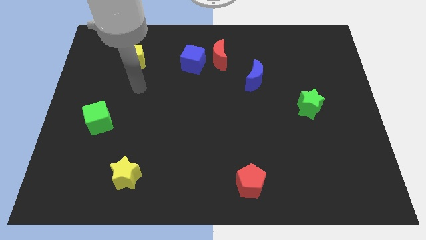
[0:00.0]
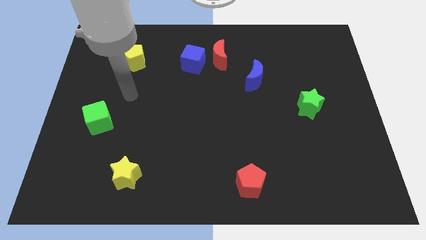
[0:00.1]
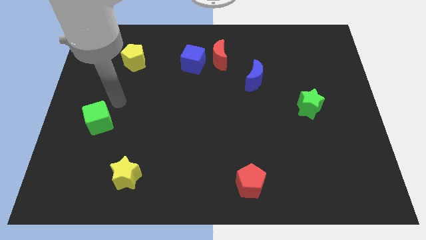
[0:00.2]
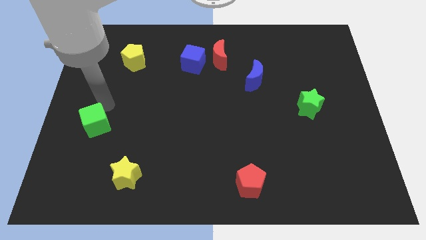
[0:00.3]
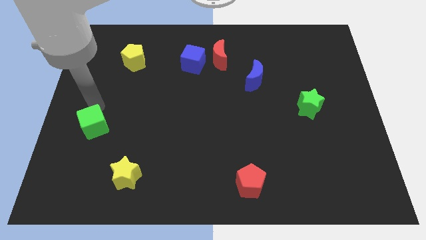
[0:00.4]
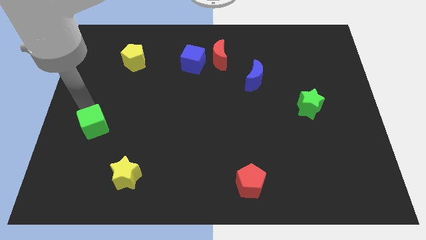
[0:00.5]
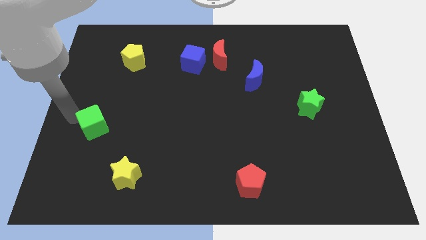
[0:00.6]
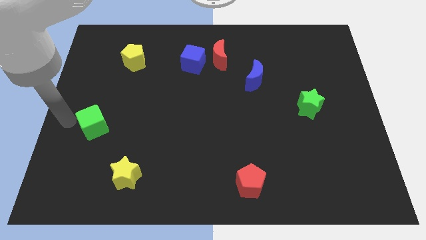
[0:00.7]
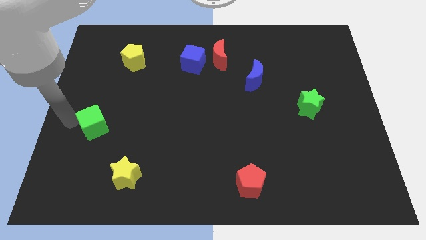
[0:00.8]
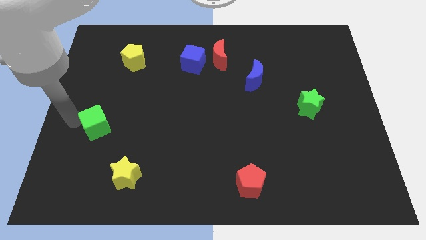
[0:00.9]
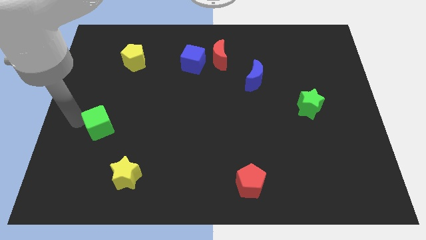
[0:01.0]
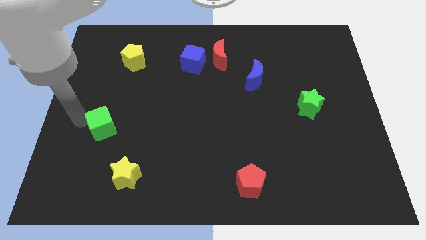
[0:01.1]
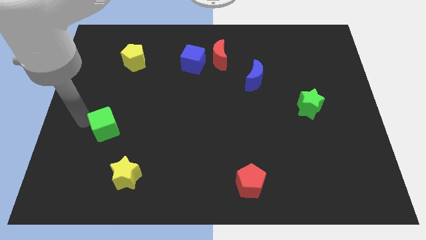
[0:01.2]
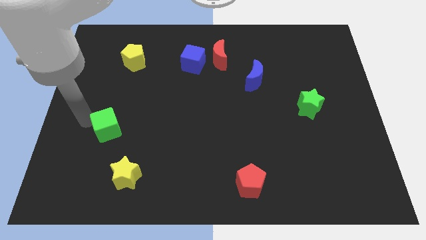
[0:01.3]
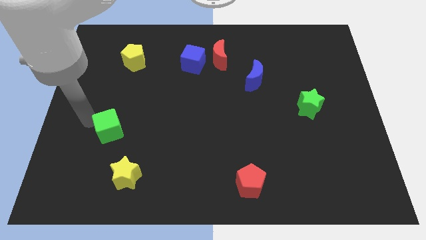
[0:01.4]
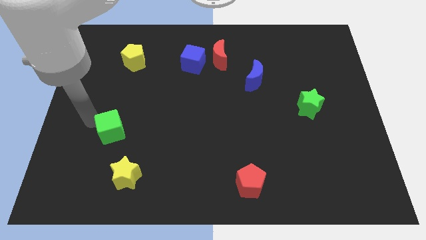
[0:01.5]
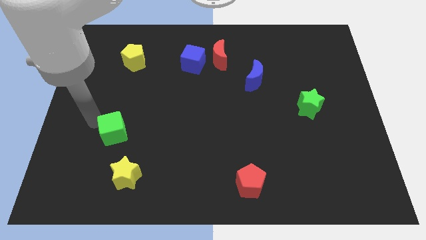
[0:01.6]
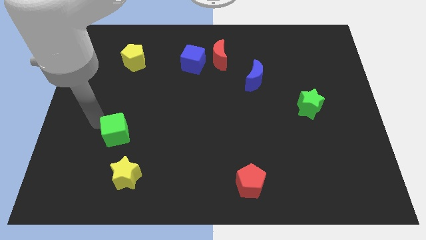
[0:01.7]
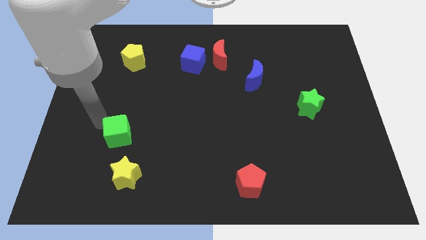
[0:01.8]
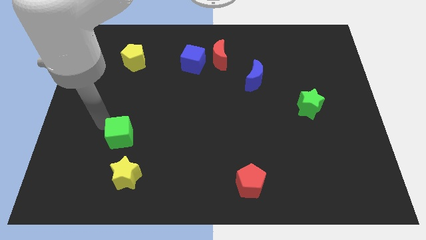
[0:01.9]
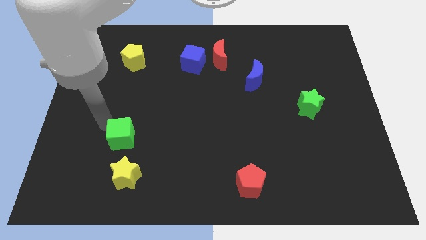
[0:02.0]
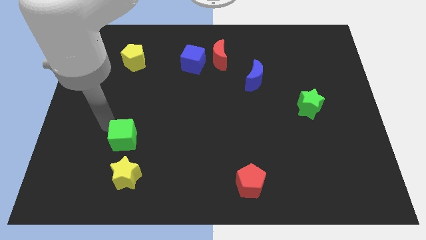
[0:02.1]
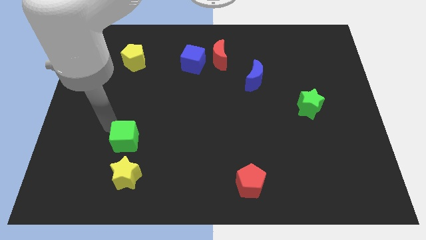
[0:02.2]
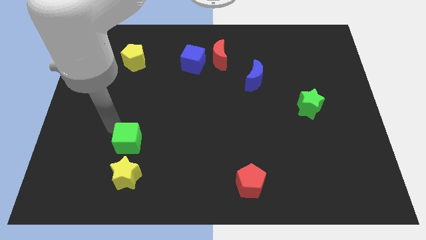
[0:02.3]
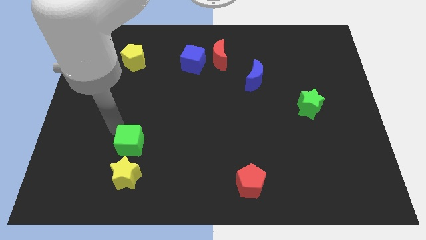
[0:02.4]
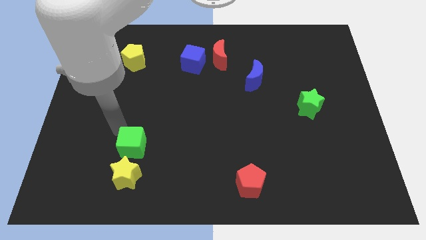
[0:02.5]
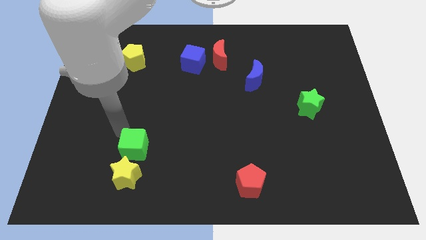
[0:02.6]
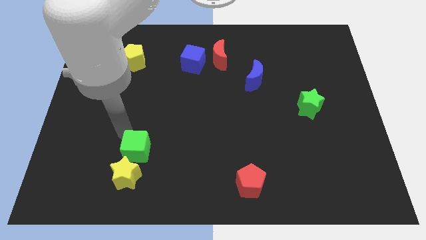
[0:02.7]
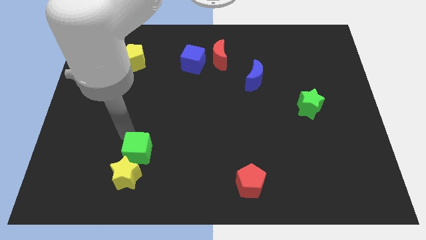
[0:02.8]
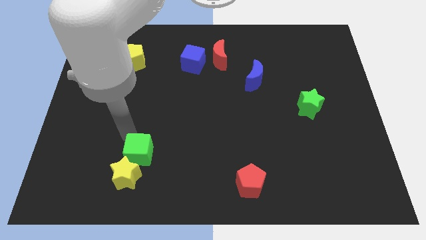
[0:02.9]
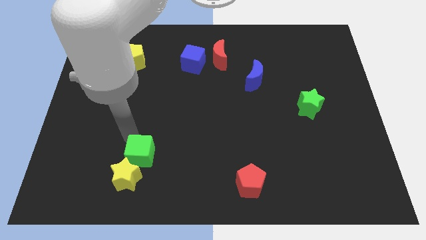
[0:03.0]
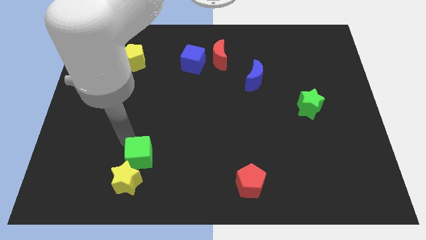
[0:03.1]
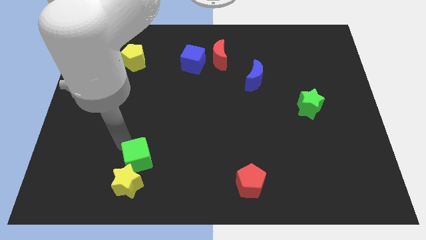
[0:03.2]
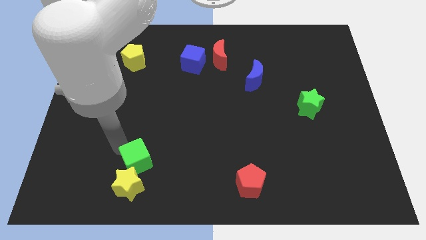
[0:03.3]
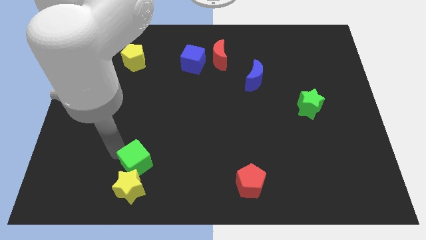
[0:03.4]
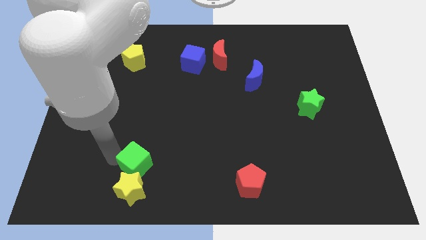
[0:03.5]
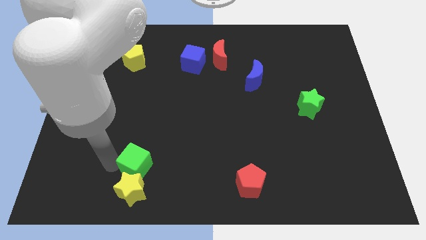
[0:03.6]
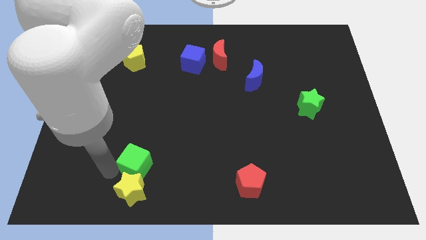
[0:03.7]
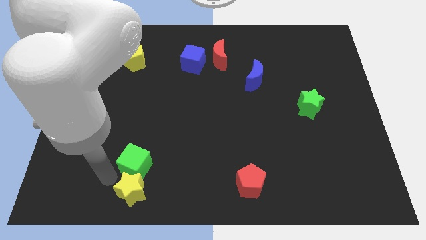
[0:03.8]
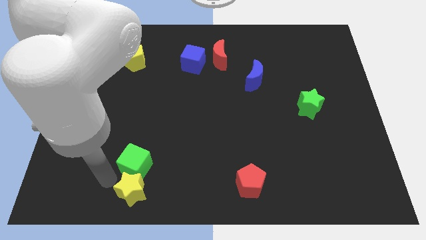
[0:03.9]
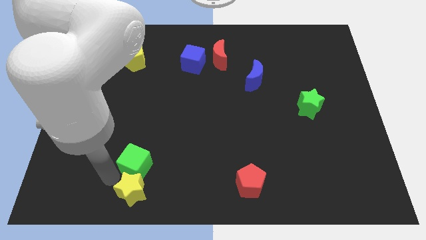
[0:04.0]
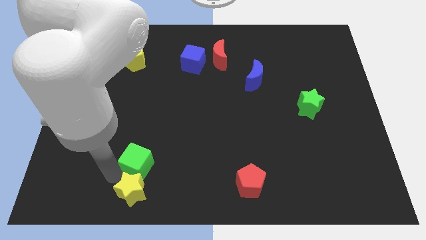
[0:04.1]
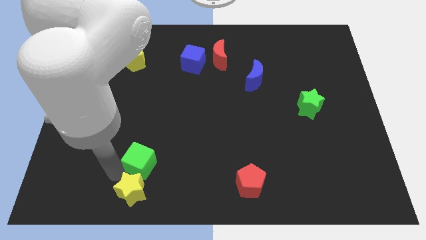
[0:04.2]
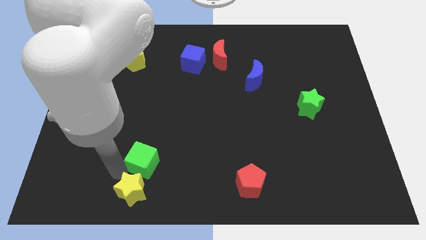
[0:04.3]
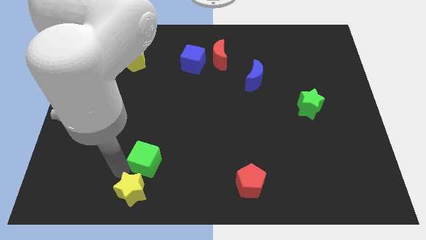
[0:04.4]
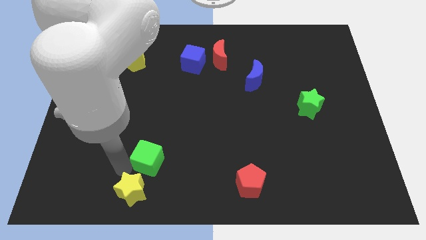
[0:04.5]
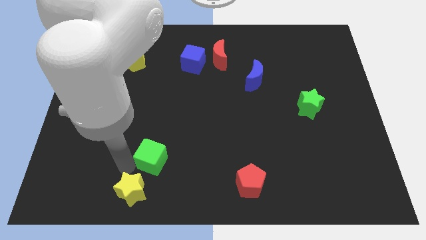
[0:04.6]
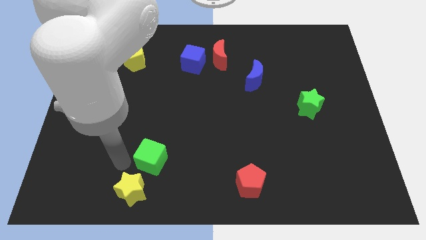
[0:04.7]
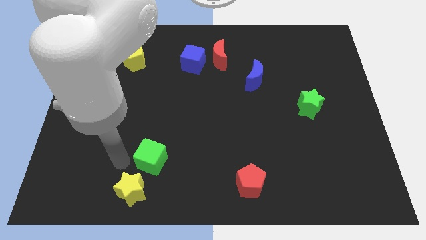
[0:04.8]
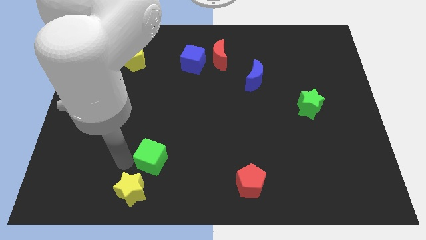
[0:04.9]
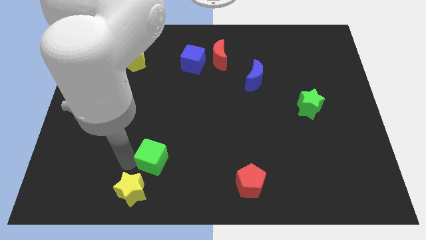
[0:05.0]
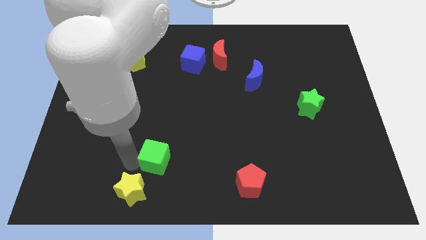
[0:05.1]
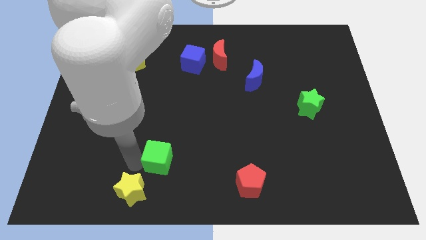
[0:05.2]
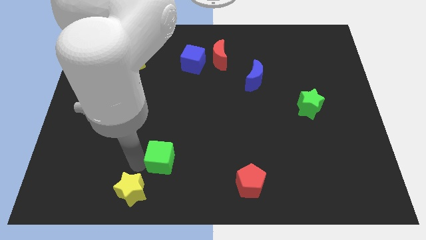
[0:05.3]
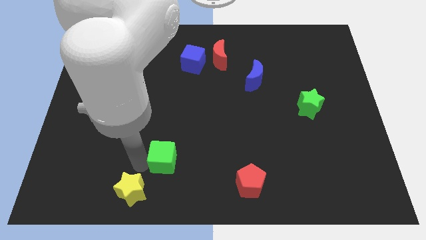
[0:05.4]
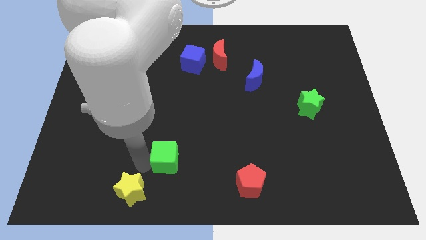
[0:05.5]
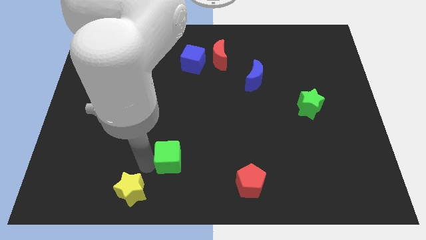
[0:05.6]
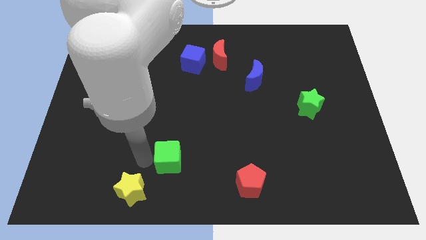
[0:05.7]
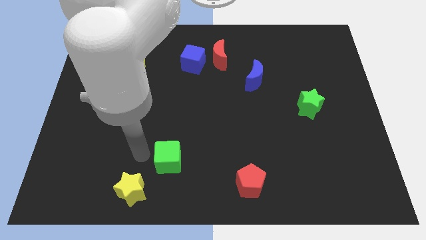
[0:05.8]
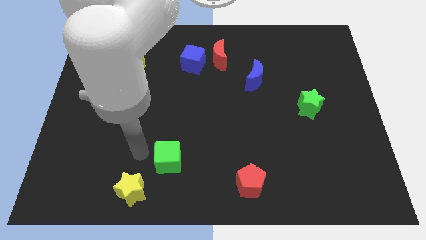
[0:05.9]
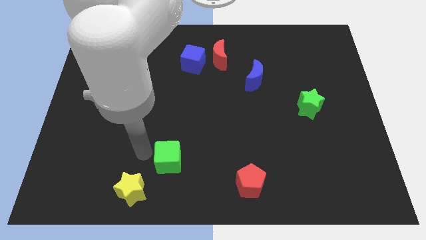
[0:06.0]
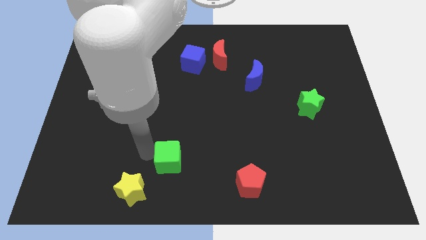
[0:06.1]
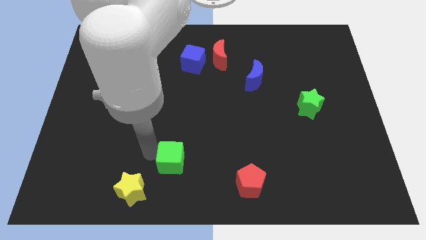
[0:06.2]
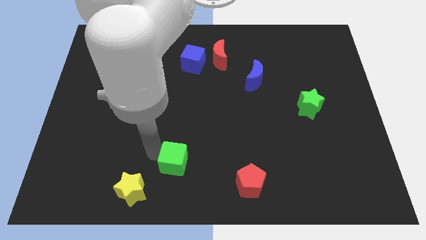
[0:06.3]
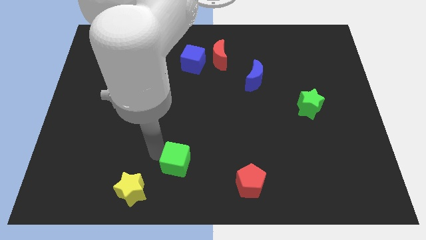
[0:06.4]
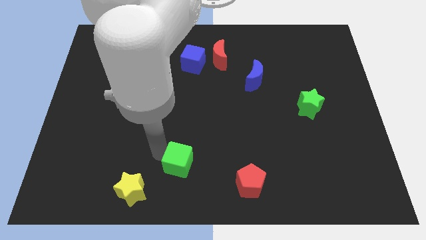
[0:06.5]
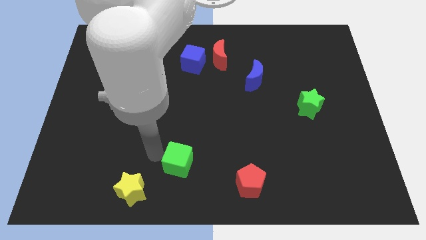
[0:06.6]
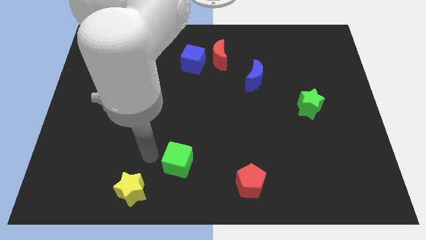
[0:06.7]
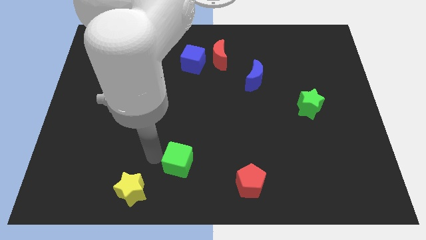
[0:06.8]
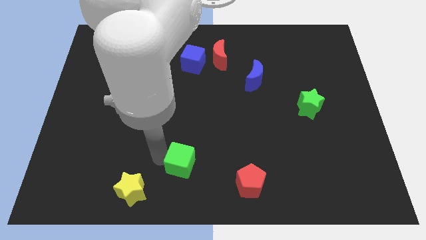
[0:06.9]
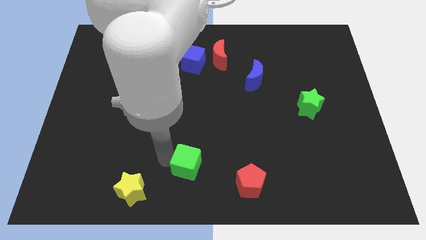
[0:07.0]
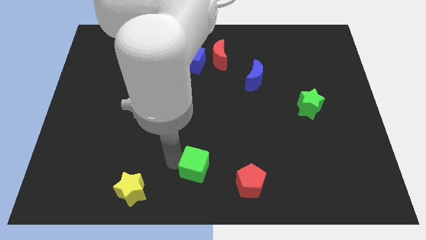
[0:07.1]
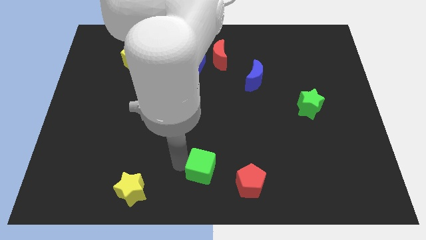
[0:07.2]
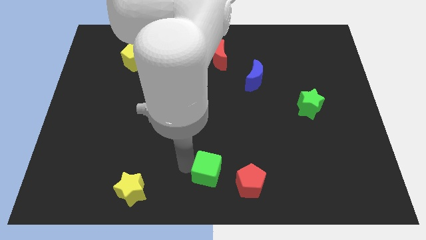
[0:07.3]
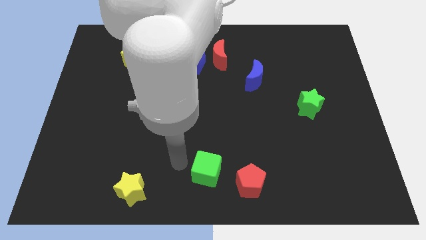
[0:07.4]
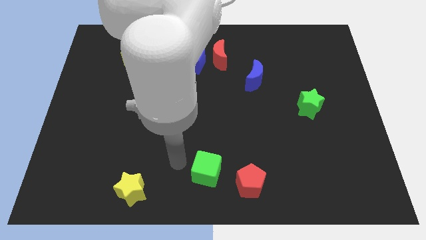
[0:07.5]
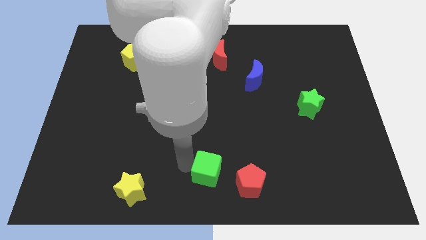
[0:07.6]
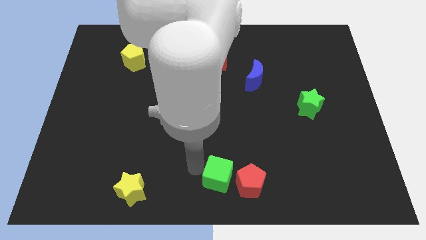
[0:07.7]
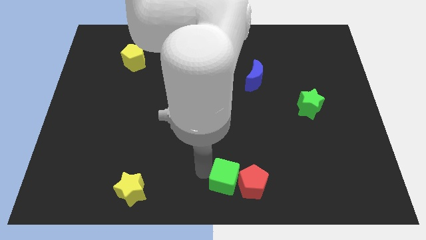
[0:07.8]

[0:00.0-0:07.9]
move the green cube to the red pentagon
